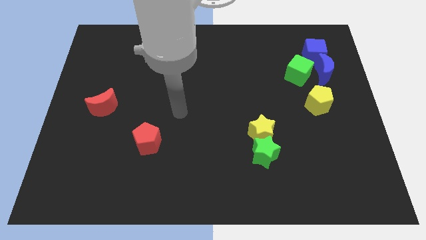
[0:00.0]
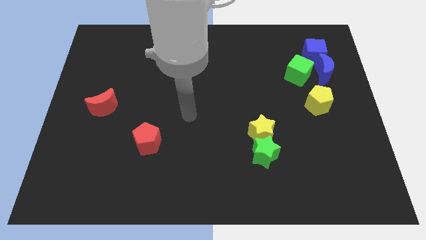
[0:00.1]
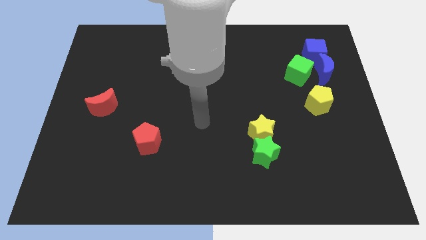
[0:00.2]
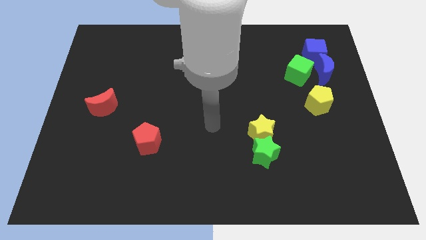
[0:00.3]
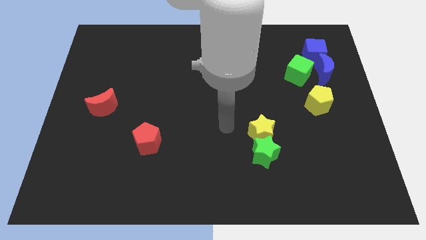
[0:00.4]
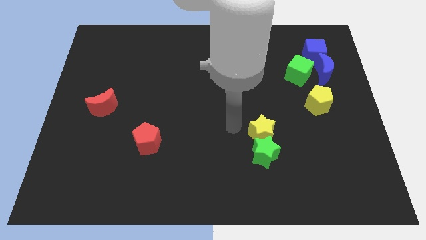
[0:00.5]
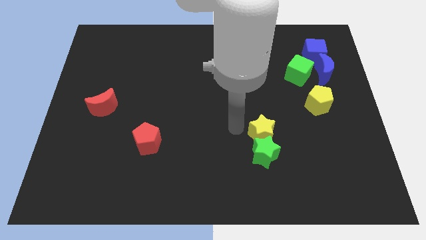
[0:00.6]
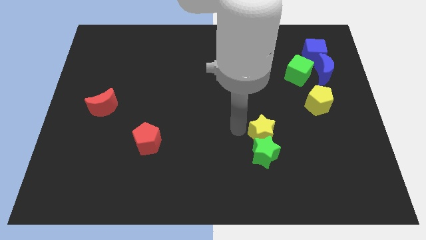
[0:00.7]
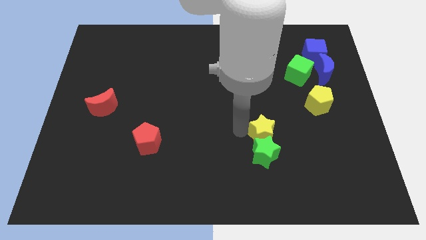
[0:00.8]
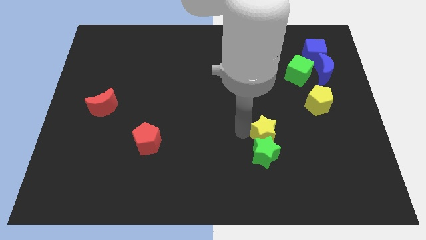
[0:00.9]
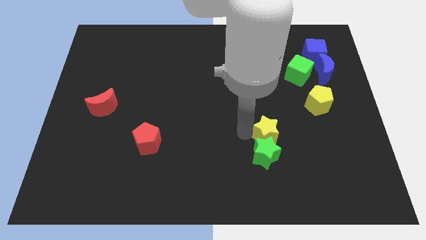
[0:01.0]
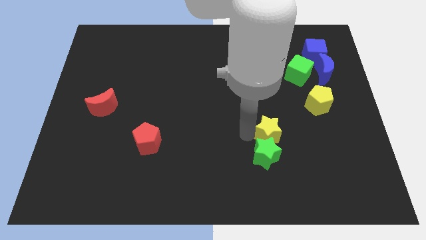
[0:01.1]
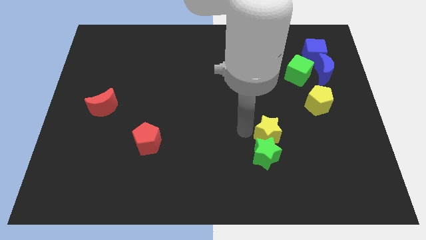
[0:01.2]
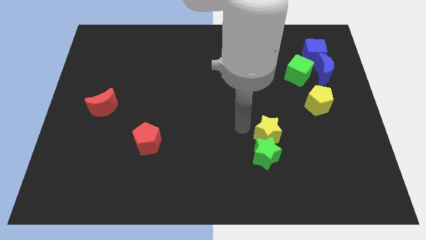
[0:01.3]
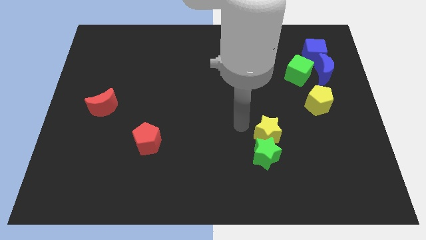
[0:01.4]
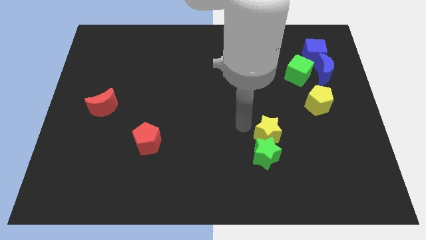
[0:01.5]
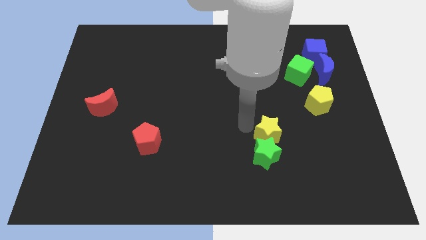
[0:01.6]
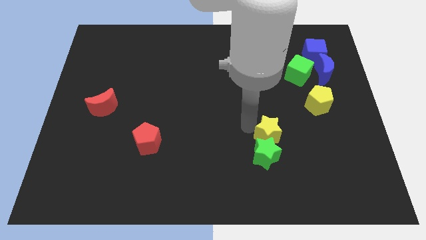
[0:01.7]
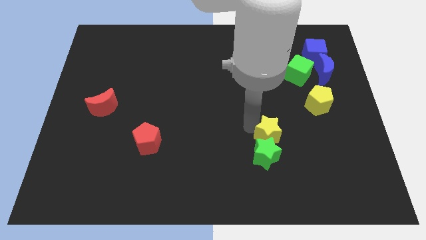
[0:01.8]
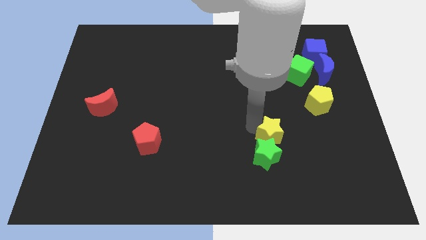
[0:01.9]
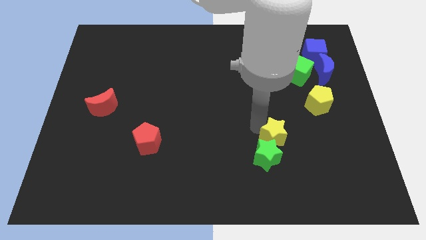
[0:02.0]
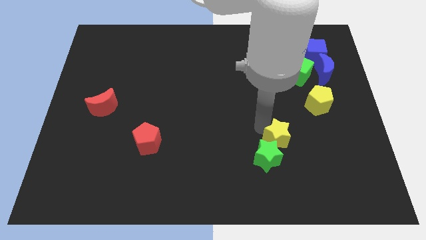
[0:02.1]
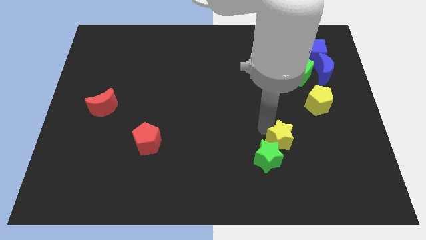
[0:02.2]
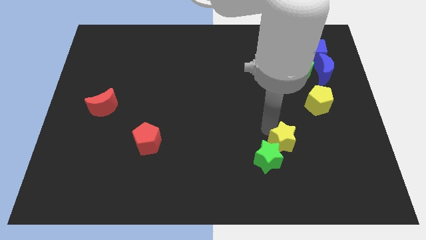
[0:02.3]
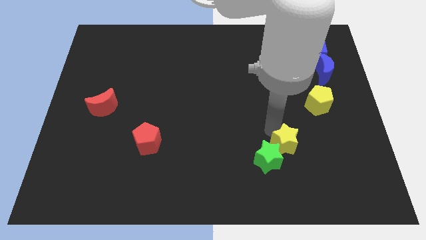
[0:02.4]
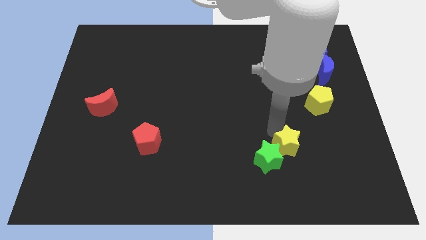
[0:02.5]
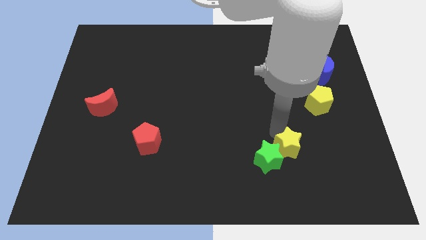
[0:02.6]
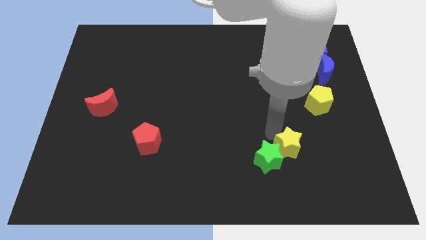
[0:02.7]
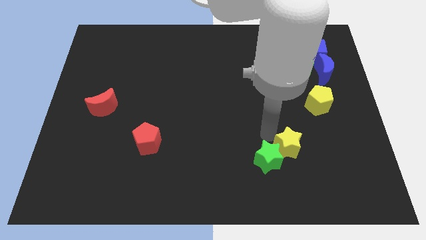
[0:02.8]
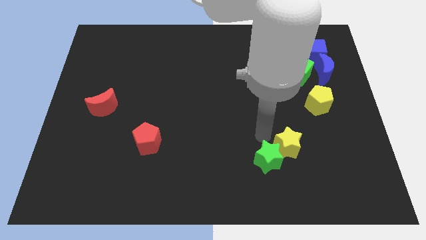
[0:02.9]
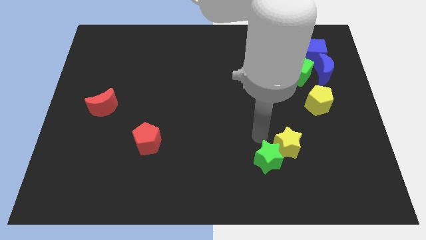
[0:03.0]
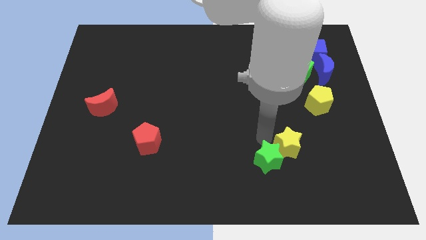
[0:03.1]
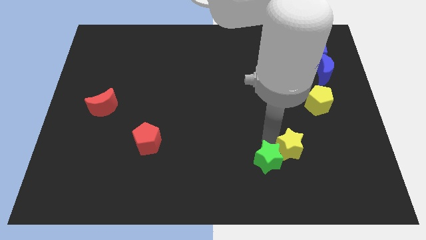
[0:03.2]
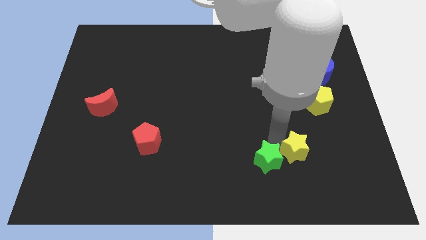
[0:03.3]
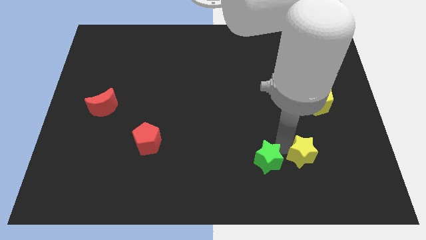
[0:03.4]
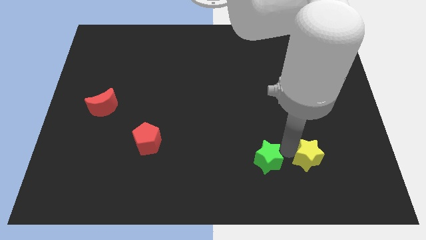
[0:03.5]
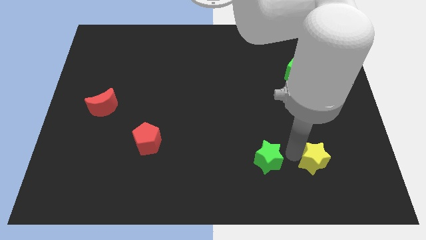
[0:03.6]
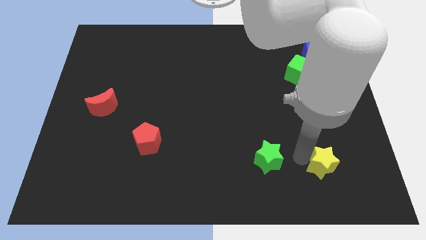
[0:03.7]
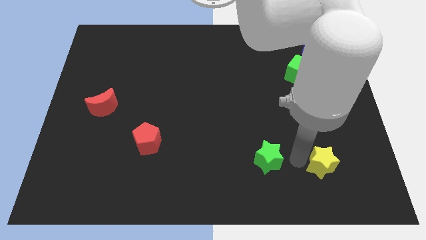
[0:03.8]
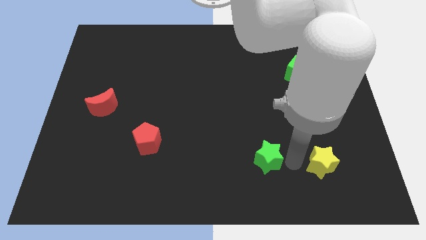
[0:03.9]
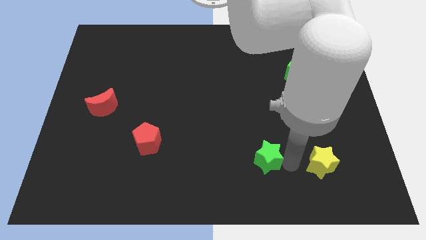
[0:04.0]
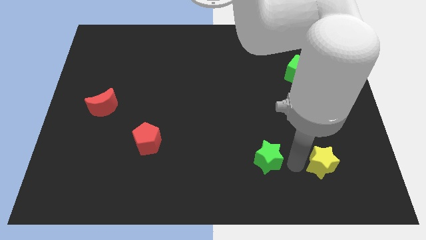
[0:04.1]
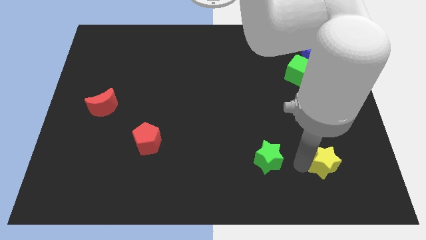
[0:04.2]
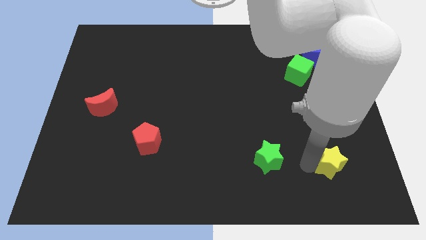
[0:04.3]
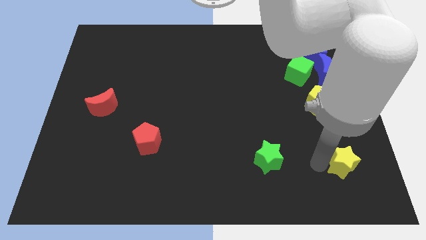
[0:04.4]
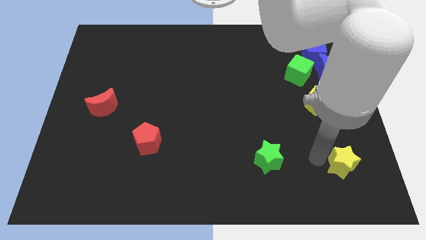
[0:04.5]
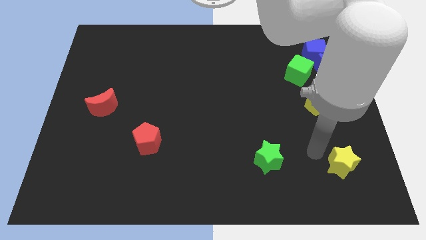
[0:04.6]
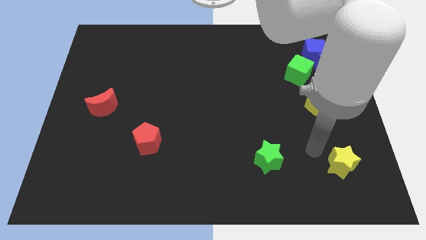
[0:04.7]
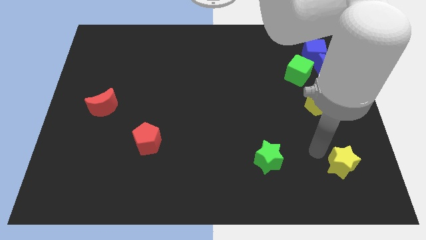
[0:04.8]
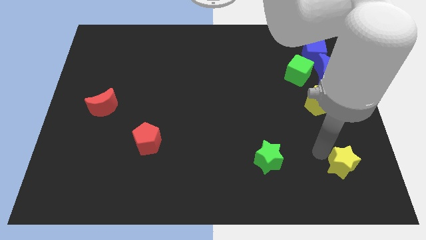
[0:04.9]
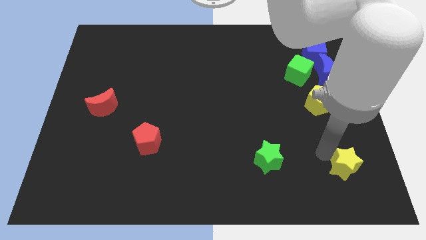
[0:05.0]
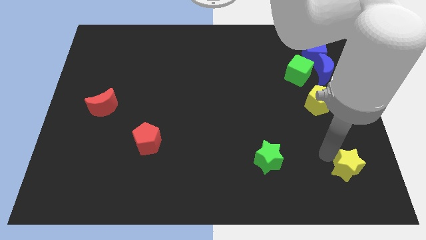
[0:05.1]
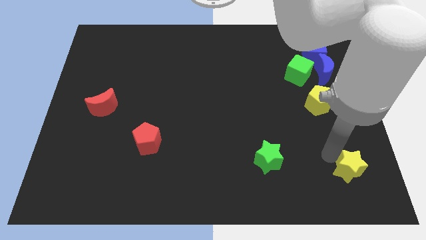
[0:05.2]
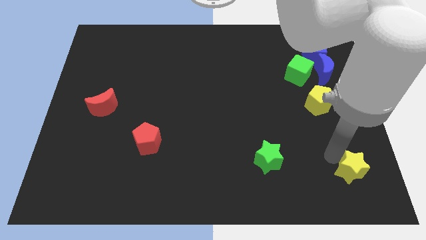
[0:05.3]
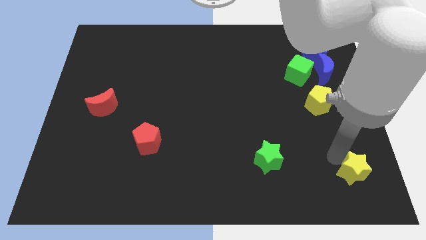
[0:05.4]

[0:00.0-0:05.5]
put the yellow star to the bottom right

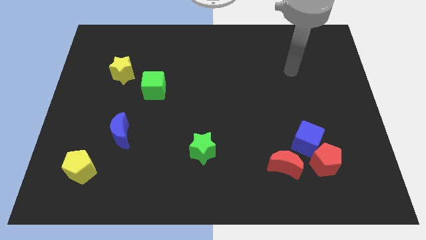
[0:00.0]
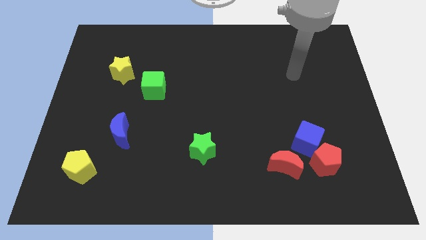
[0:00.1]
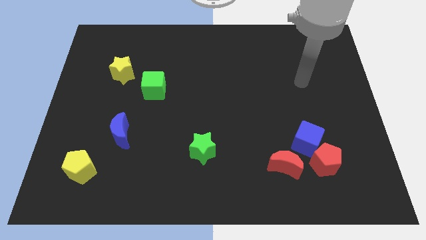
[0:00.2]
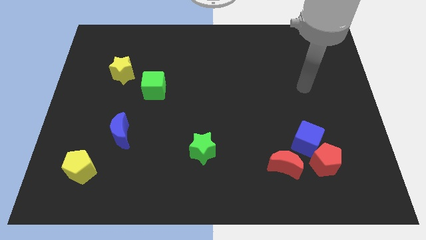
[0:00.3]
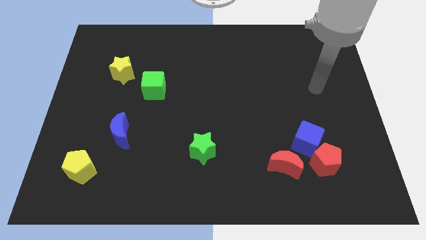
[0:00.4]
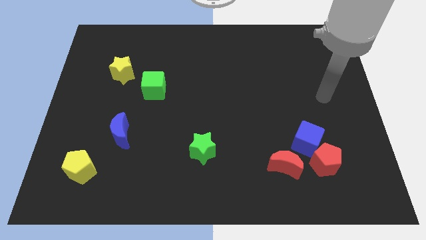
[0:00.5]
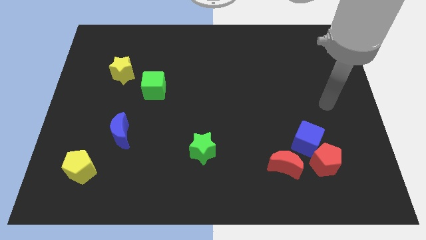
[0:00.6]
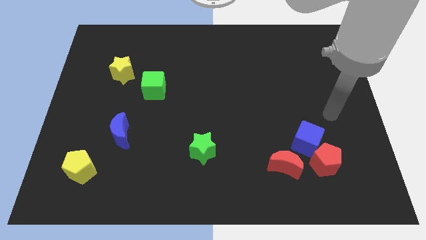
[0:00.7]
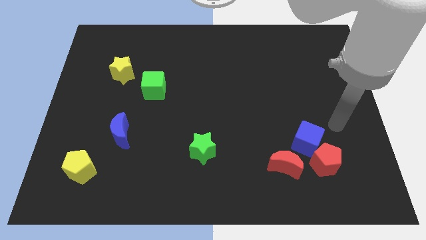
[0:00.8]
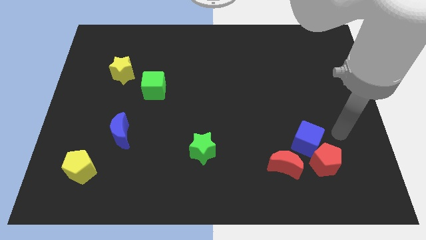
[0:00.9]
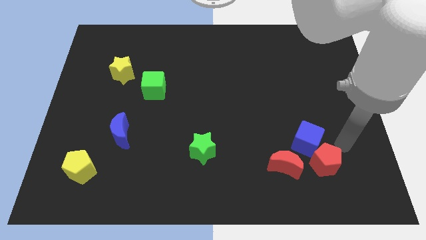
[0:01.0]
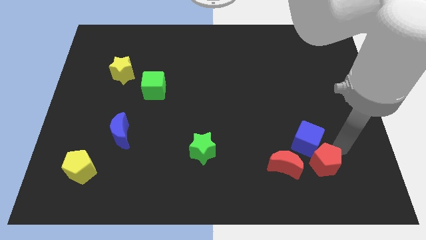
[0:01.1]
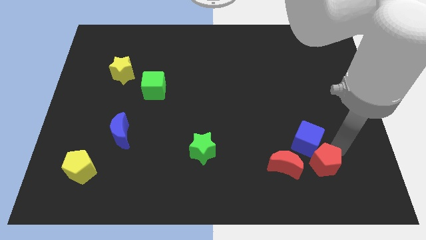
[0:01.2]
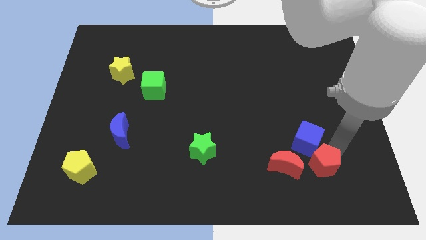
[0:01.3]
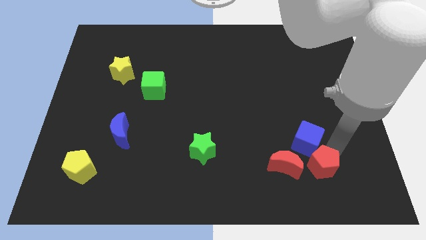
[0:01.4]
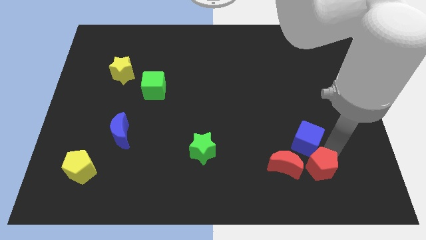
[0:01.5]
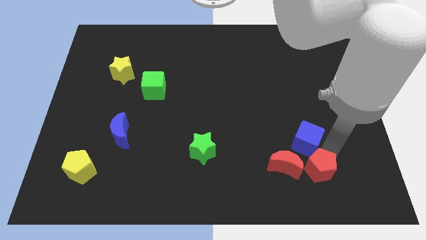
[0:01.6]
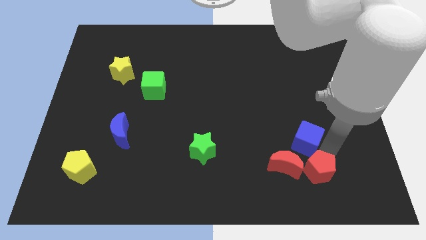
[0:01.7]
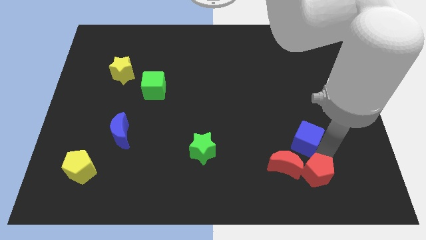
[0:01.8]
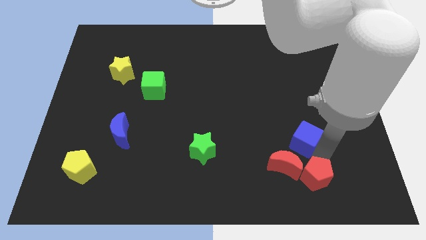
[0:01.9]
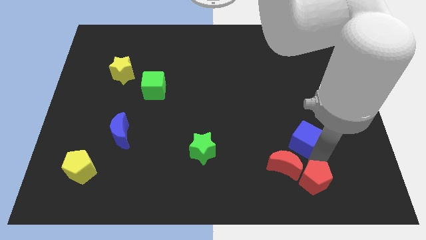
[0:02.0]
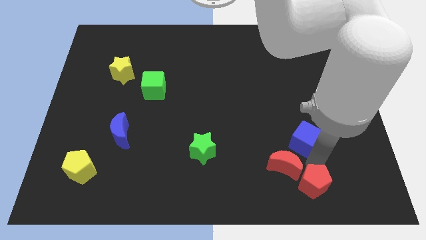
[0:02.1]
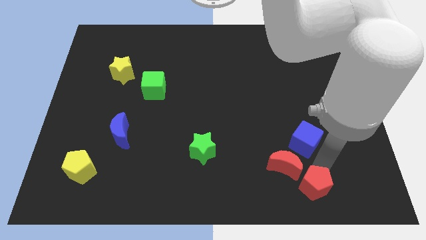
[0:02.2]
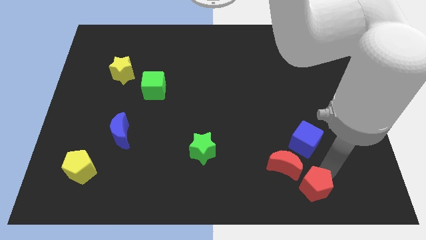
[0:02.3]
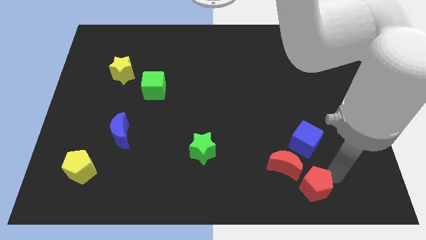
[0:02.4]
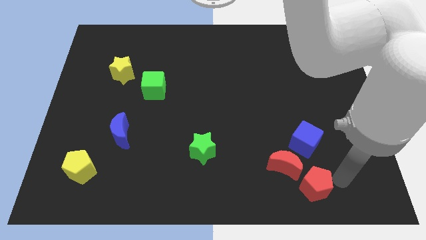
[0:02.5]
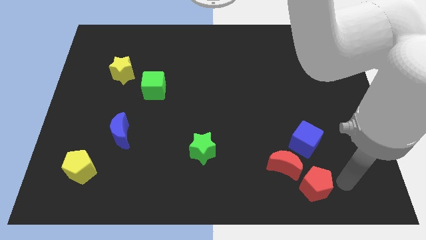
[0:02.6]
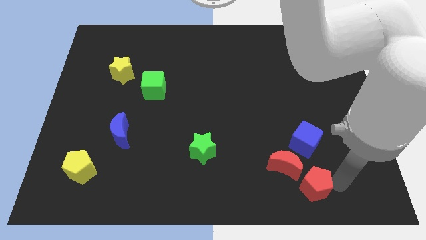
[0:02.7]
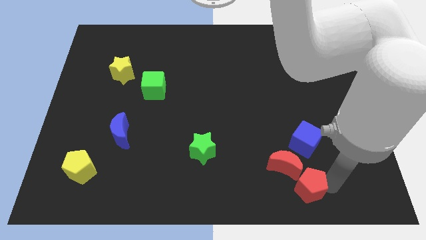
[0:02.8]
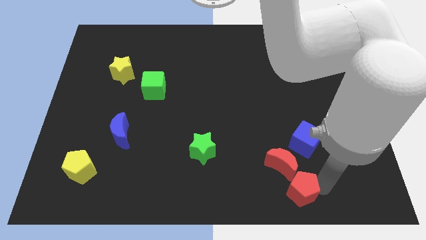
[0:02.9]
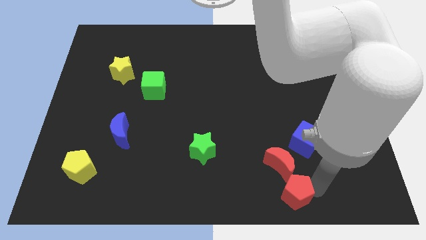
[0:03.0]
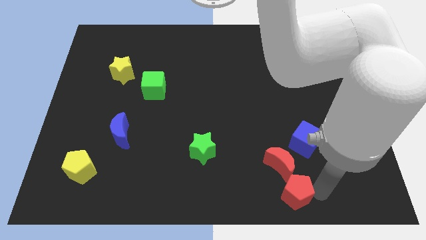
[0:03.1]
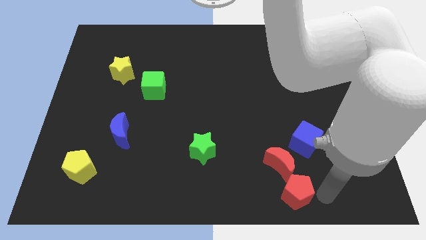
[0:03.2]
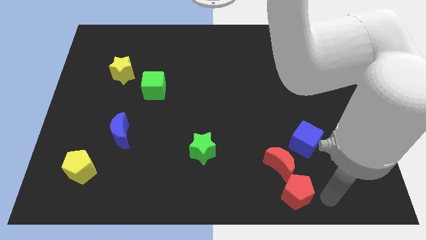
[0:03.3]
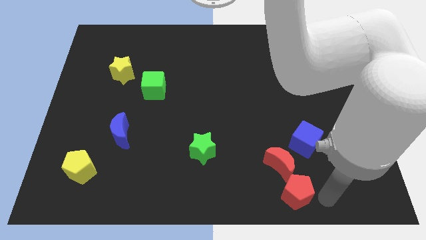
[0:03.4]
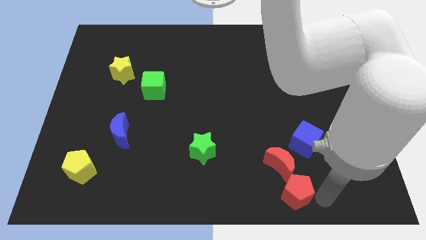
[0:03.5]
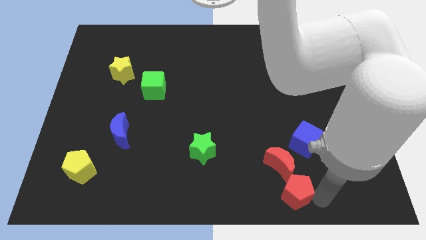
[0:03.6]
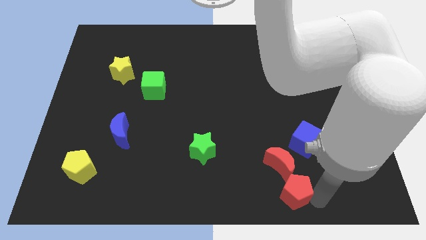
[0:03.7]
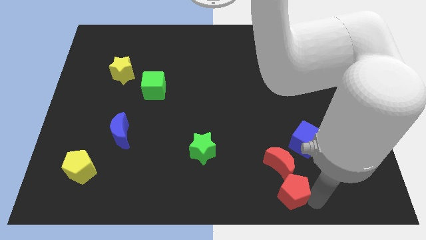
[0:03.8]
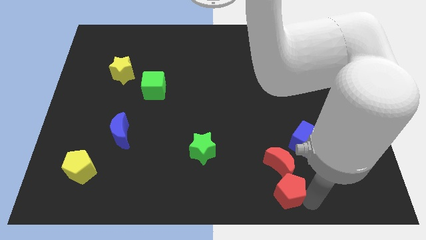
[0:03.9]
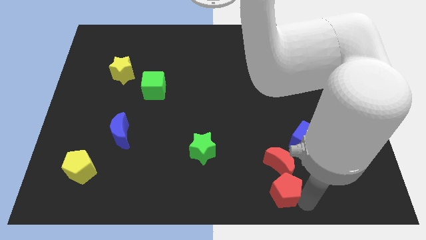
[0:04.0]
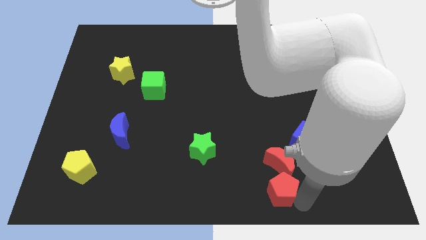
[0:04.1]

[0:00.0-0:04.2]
slide the red pentagon to the bottom
